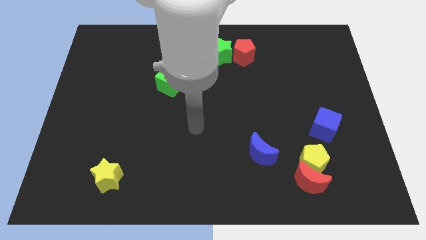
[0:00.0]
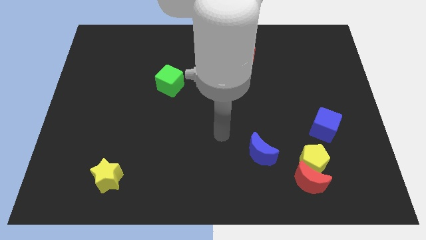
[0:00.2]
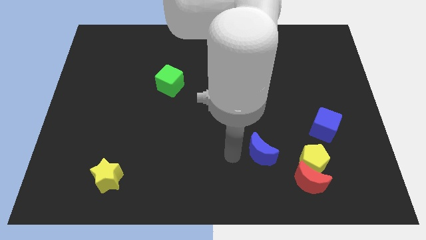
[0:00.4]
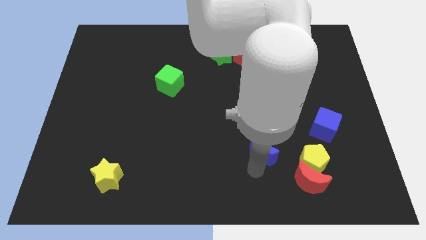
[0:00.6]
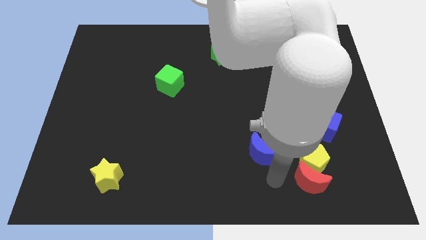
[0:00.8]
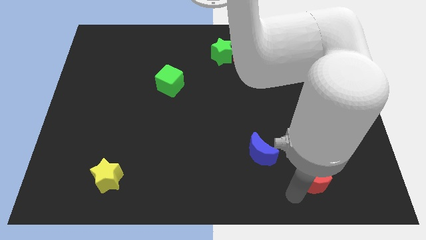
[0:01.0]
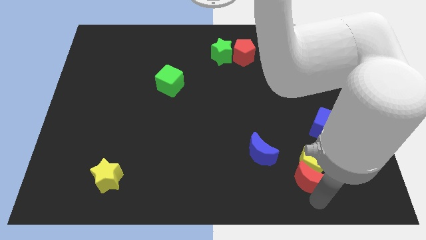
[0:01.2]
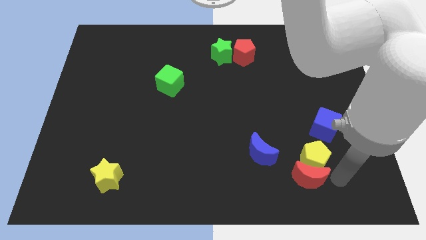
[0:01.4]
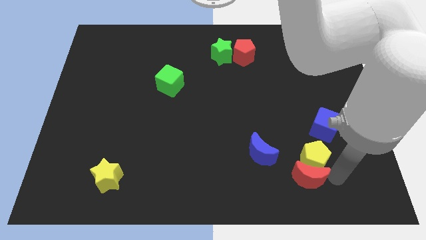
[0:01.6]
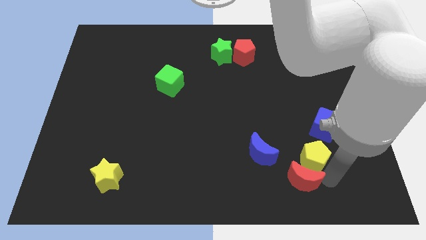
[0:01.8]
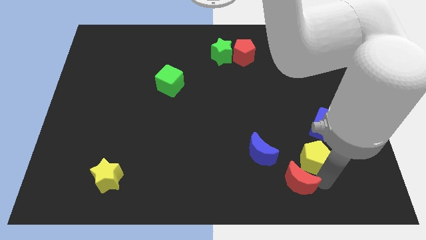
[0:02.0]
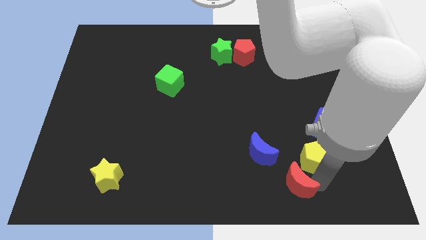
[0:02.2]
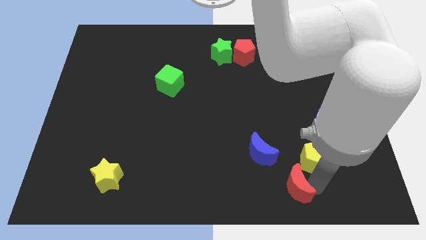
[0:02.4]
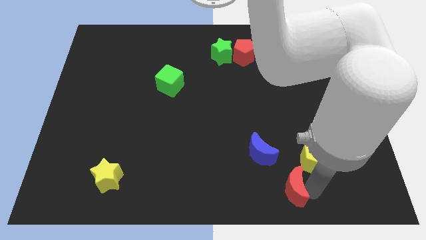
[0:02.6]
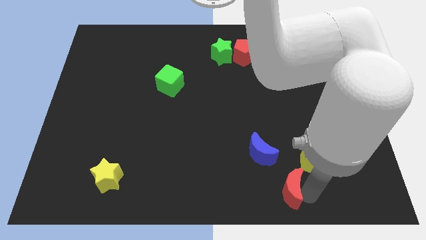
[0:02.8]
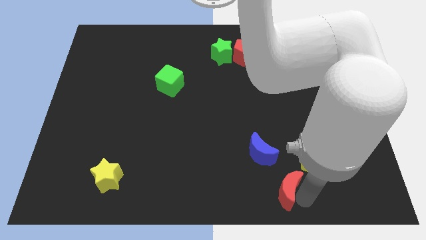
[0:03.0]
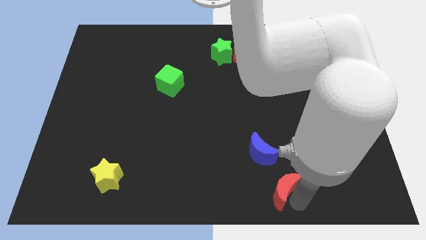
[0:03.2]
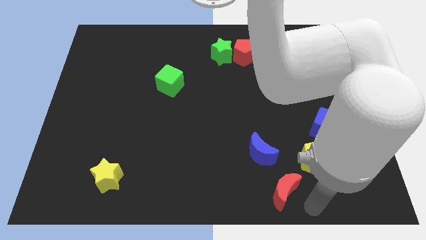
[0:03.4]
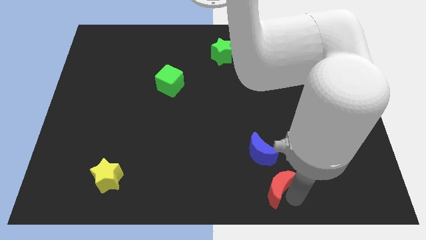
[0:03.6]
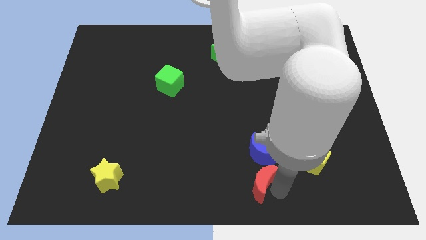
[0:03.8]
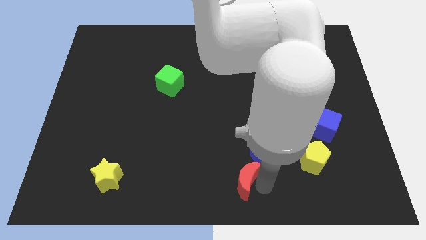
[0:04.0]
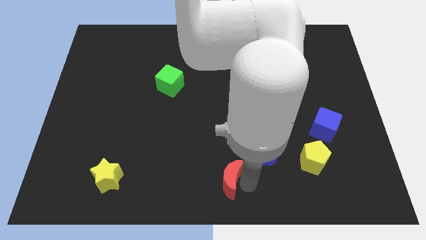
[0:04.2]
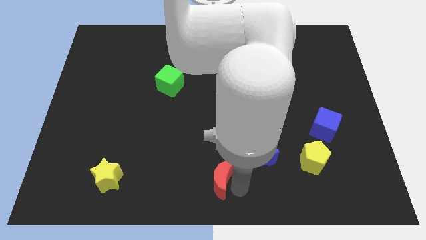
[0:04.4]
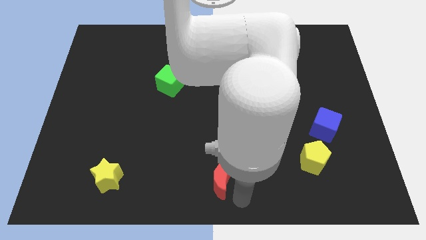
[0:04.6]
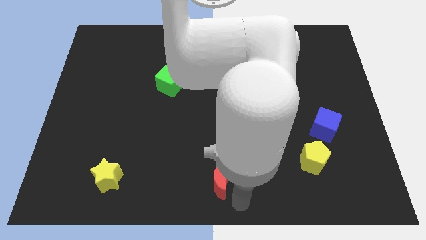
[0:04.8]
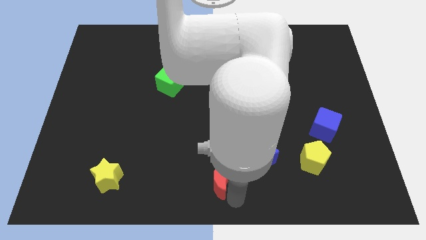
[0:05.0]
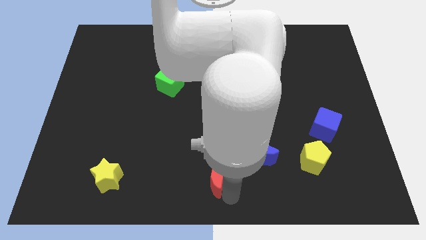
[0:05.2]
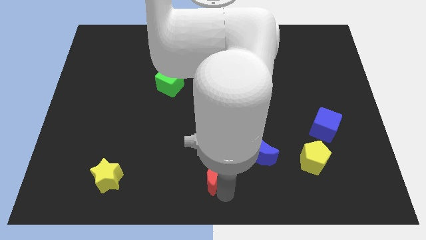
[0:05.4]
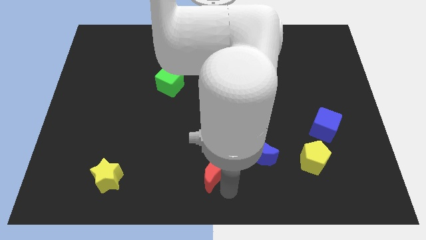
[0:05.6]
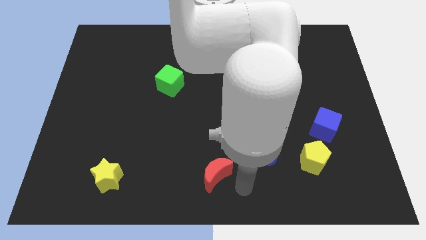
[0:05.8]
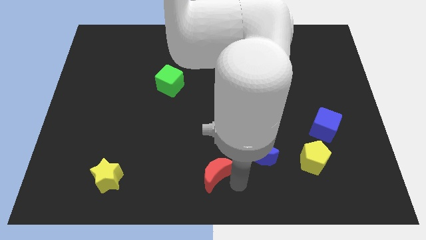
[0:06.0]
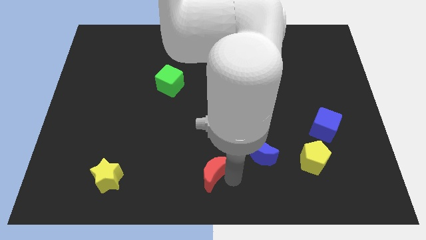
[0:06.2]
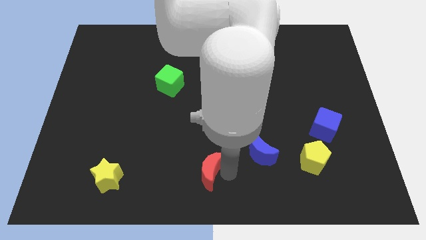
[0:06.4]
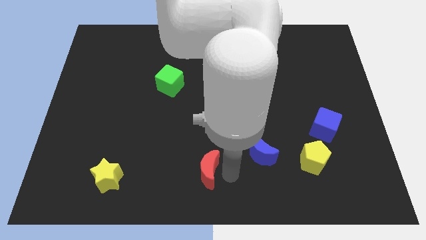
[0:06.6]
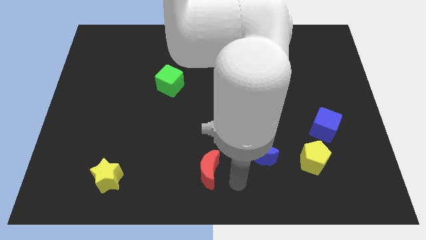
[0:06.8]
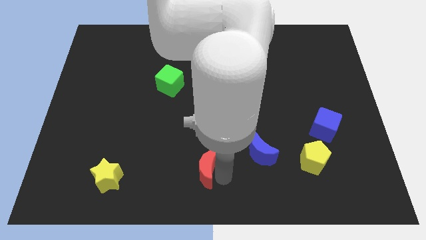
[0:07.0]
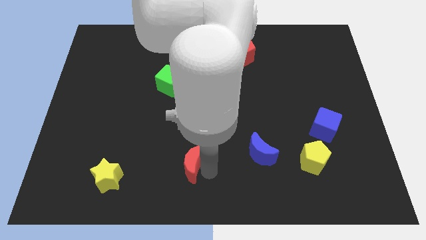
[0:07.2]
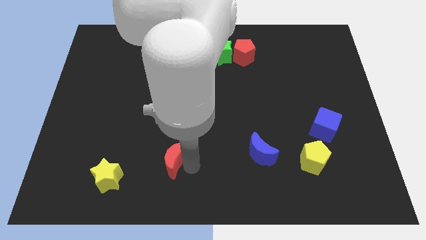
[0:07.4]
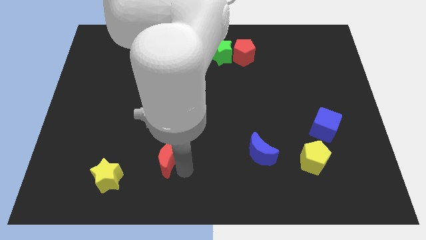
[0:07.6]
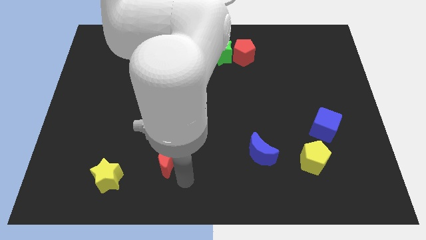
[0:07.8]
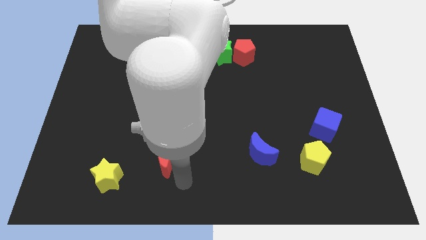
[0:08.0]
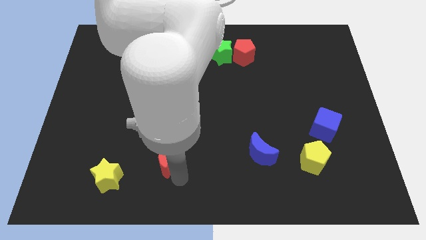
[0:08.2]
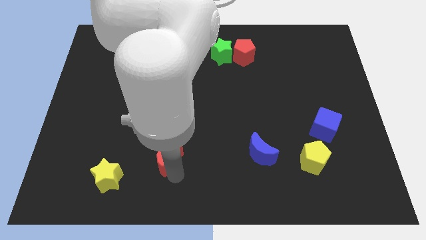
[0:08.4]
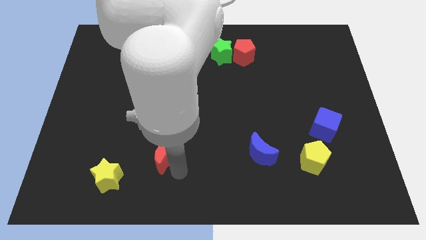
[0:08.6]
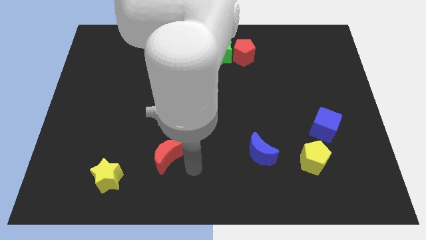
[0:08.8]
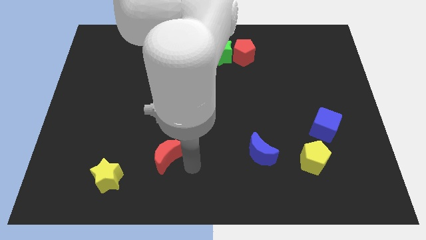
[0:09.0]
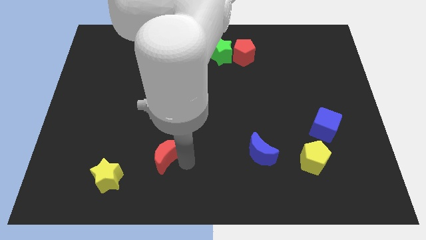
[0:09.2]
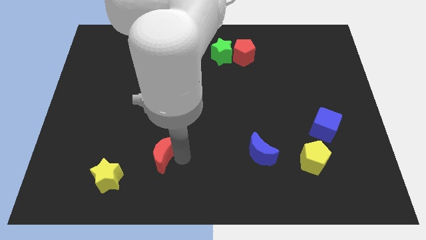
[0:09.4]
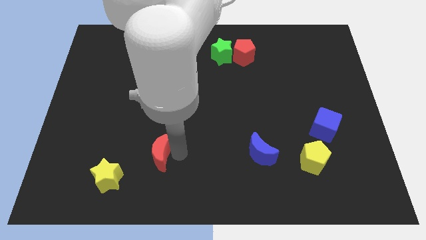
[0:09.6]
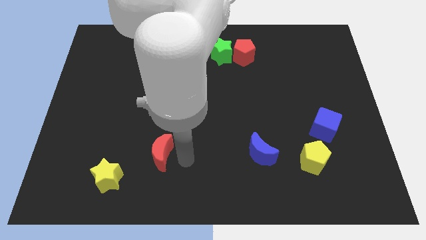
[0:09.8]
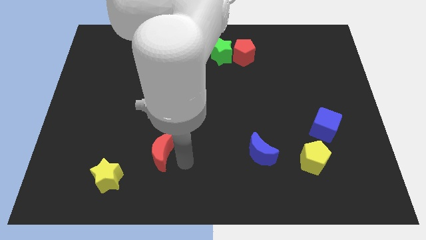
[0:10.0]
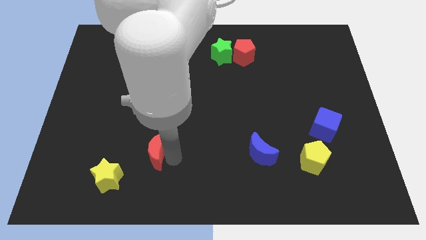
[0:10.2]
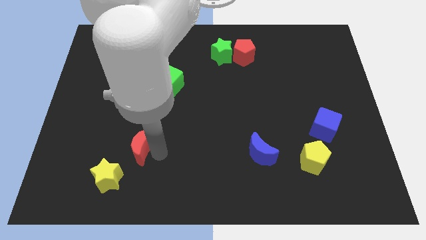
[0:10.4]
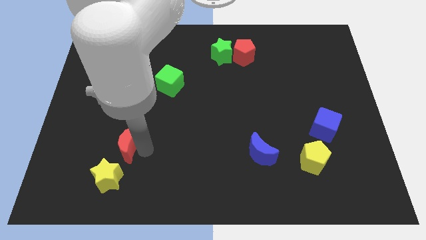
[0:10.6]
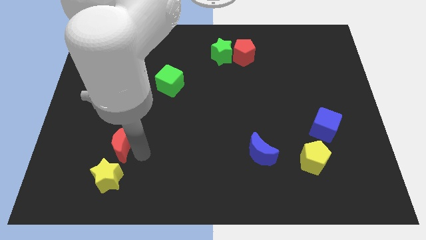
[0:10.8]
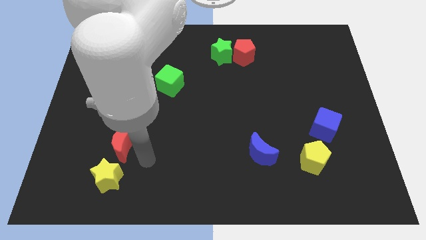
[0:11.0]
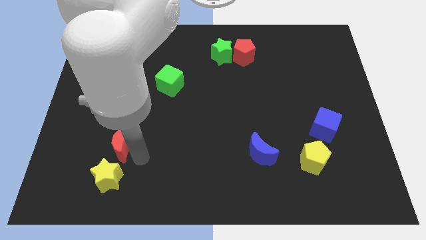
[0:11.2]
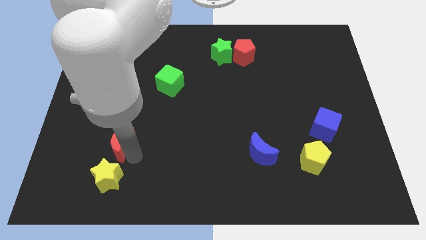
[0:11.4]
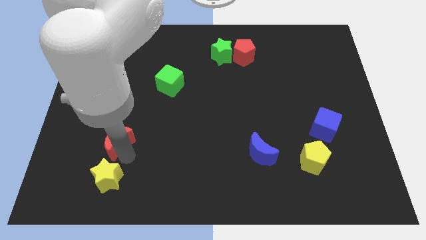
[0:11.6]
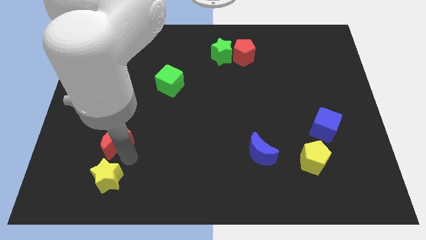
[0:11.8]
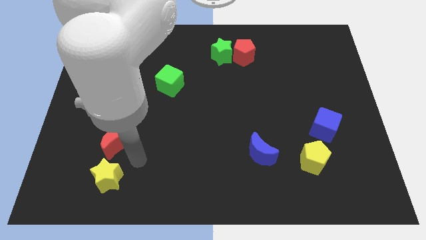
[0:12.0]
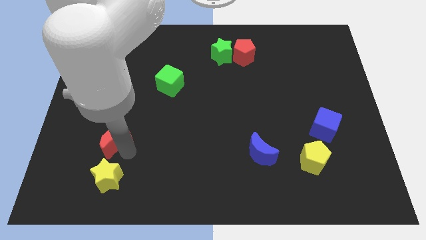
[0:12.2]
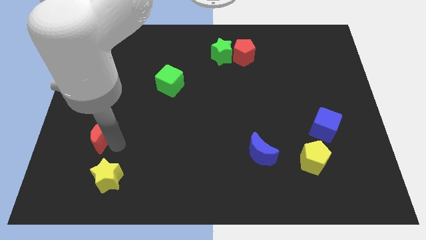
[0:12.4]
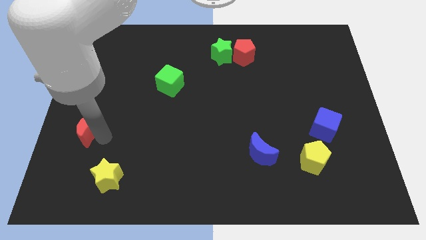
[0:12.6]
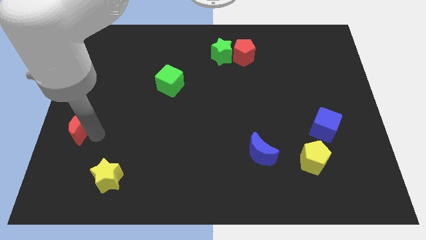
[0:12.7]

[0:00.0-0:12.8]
put the red moon to the left side of the board
